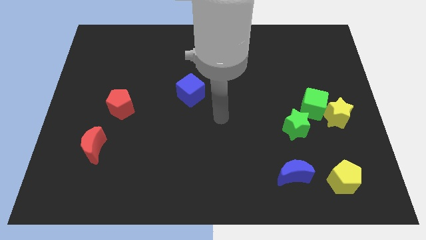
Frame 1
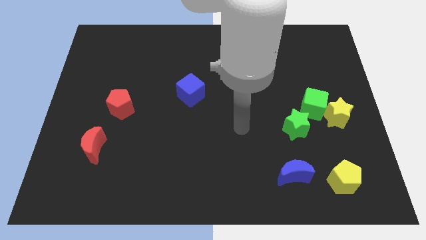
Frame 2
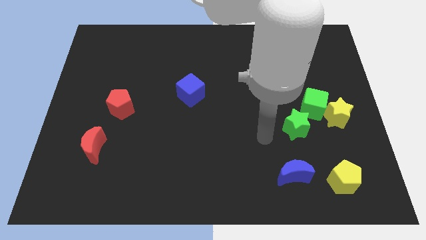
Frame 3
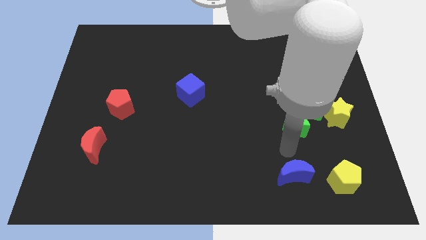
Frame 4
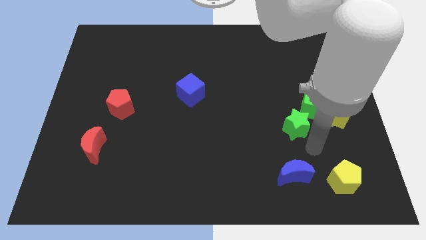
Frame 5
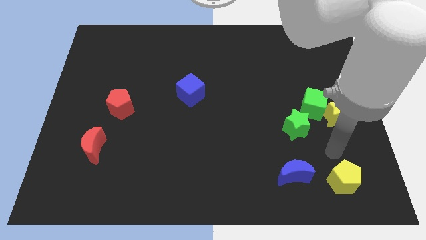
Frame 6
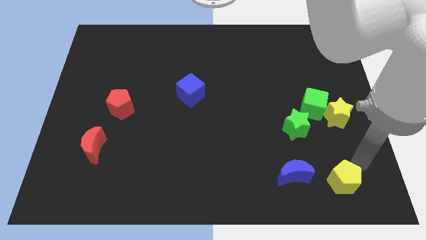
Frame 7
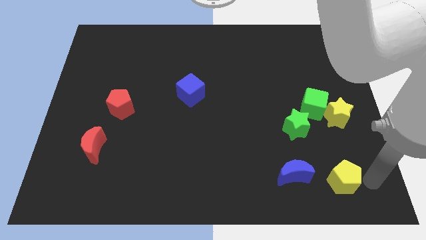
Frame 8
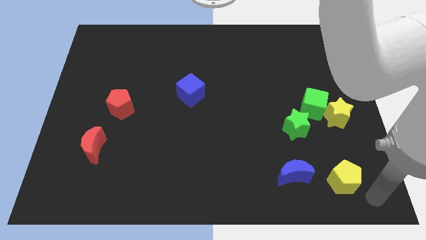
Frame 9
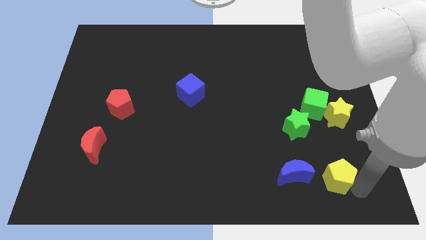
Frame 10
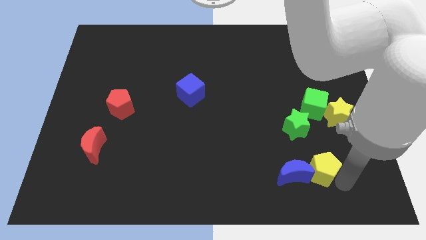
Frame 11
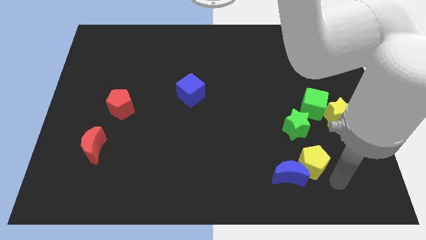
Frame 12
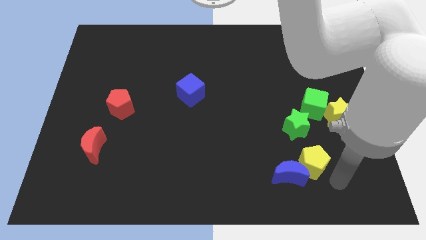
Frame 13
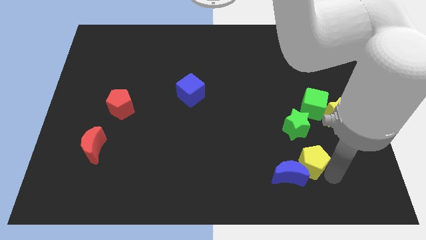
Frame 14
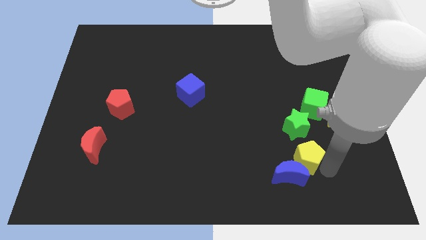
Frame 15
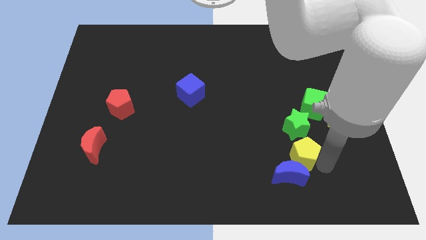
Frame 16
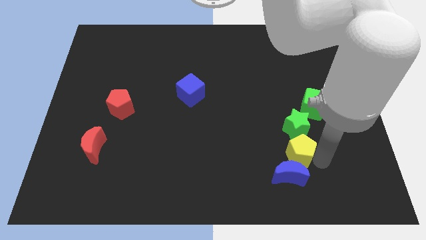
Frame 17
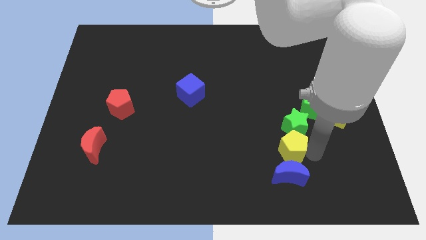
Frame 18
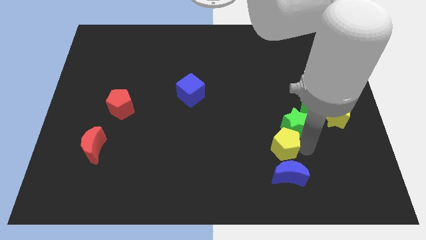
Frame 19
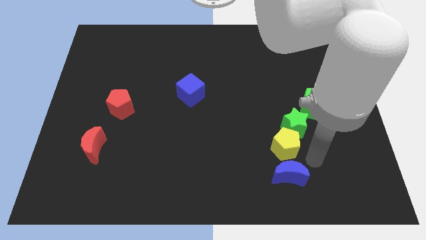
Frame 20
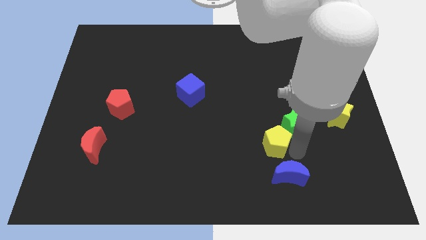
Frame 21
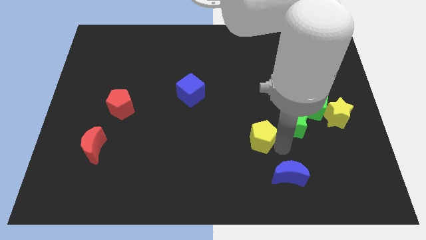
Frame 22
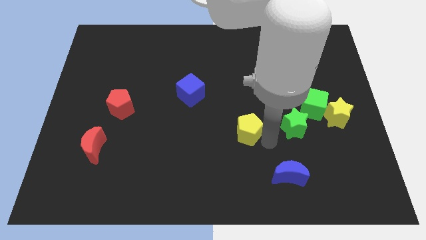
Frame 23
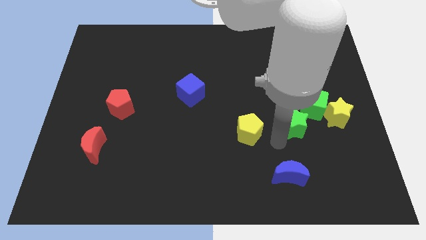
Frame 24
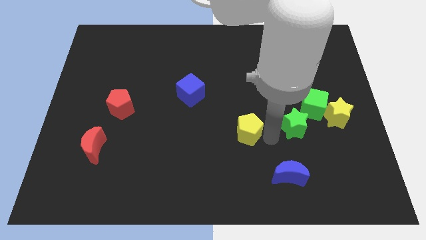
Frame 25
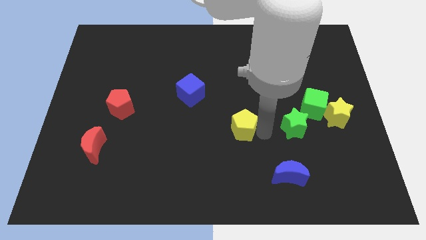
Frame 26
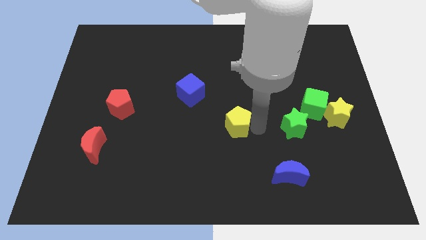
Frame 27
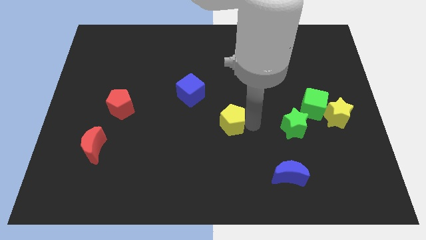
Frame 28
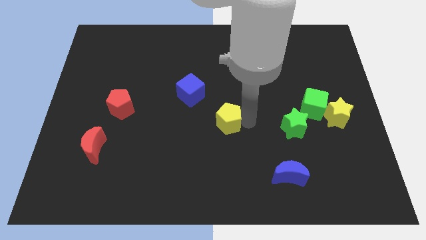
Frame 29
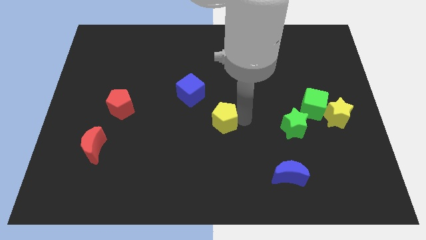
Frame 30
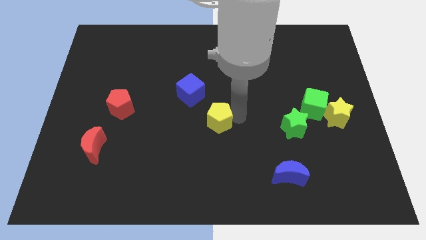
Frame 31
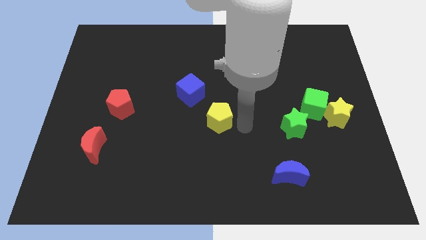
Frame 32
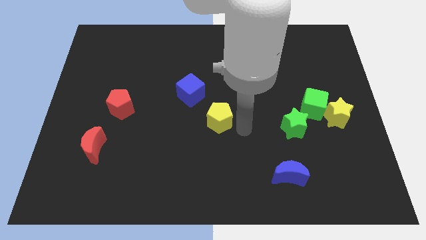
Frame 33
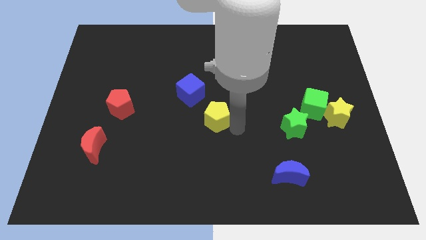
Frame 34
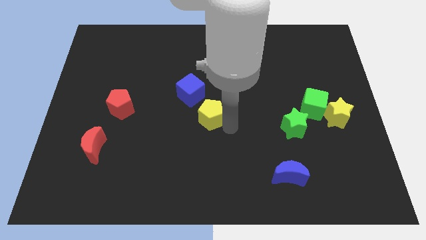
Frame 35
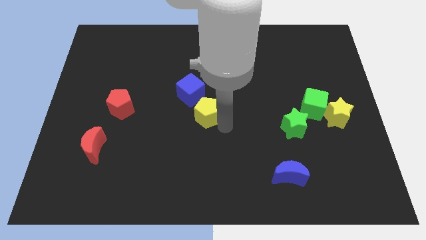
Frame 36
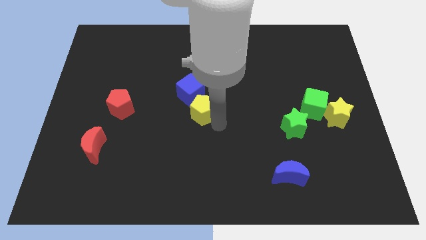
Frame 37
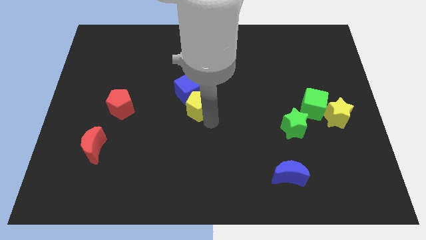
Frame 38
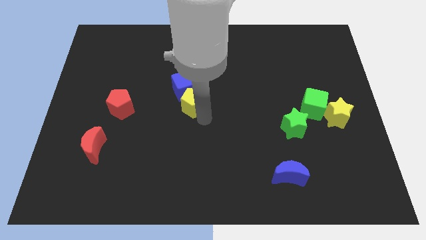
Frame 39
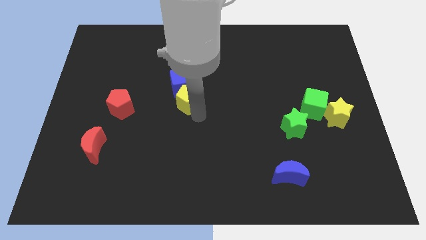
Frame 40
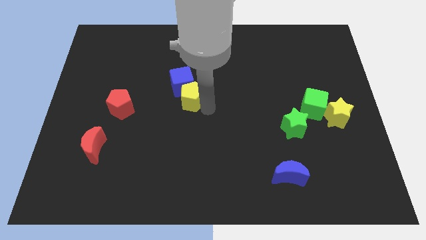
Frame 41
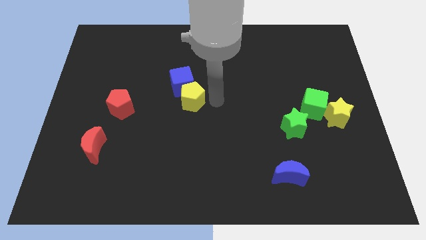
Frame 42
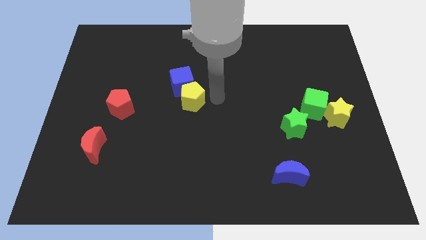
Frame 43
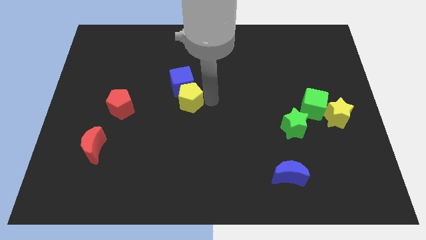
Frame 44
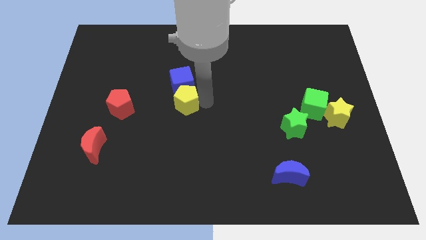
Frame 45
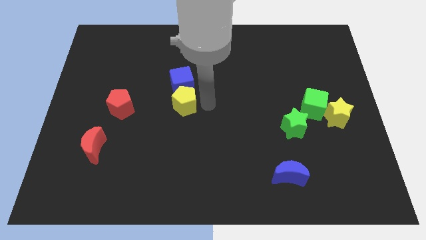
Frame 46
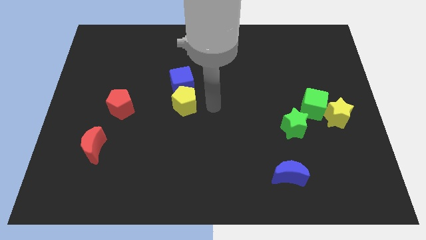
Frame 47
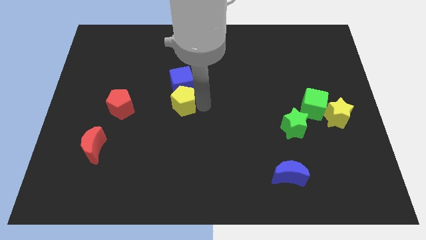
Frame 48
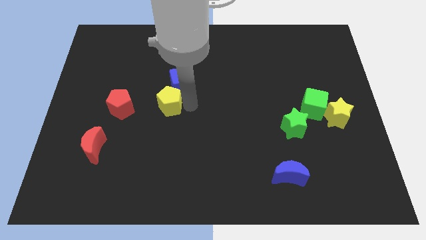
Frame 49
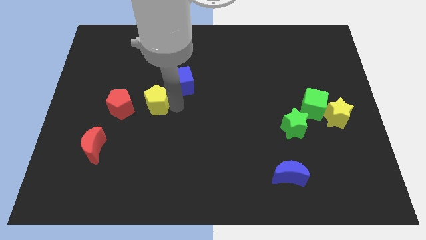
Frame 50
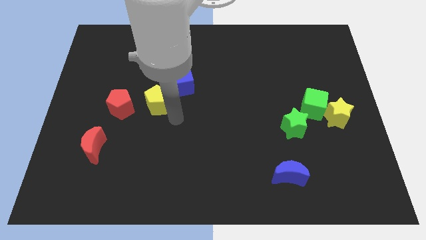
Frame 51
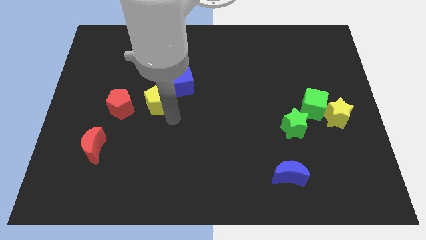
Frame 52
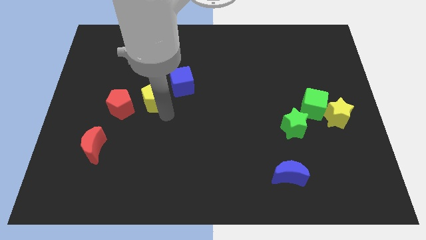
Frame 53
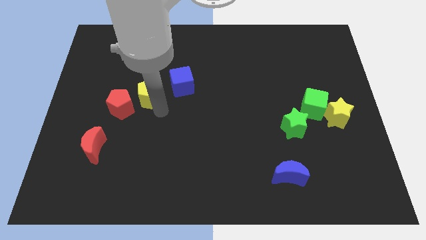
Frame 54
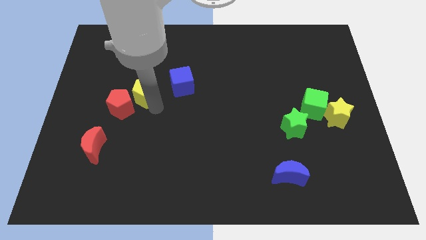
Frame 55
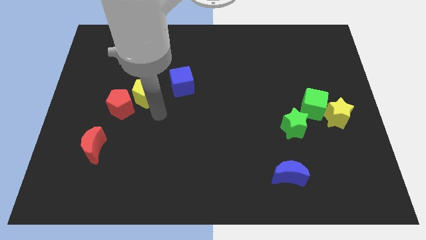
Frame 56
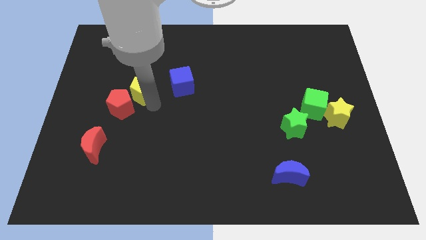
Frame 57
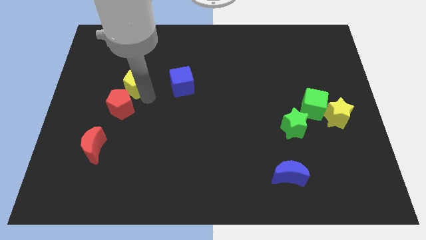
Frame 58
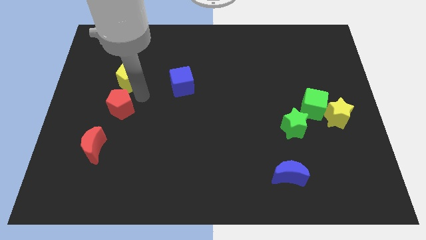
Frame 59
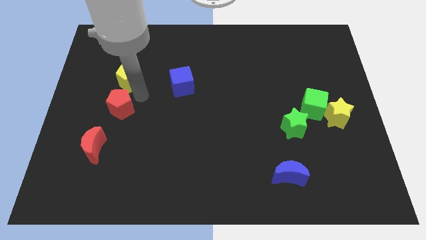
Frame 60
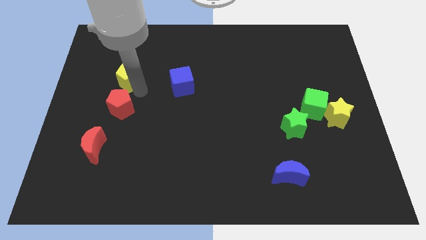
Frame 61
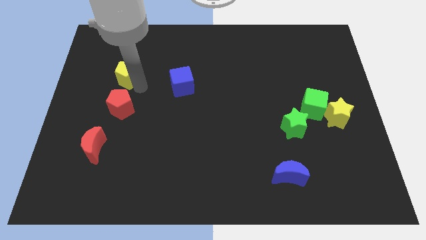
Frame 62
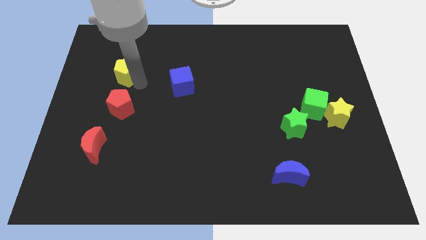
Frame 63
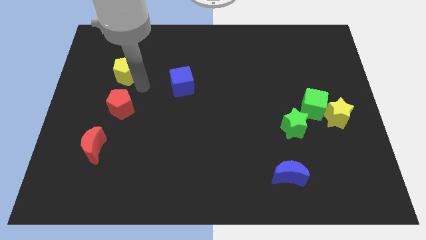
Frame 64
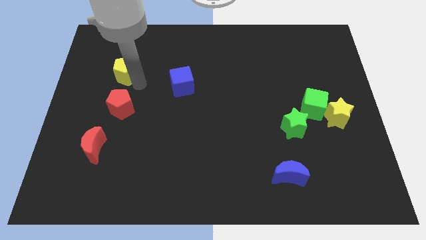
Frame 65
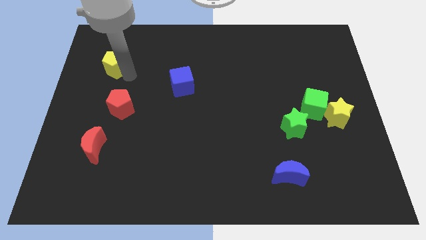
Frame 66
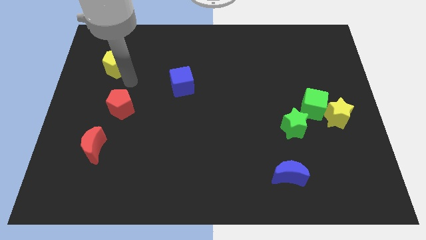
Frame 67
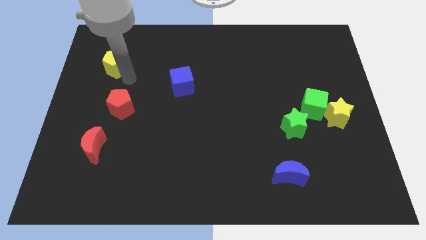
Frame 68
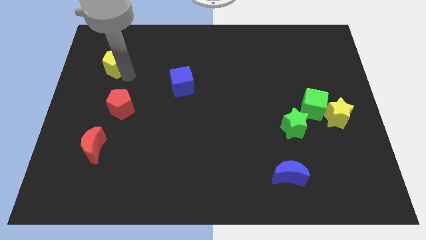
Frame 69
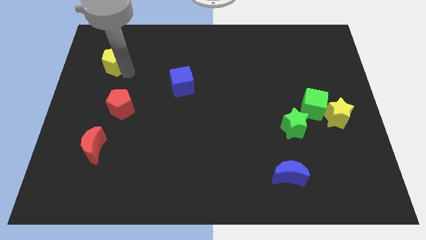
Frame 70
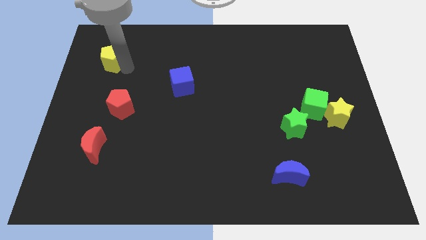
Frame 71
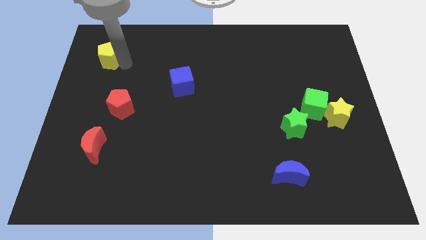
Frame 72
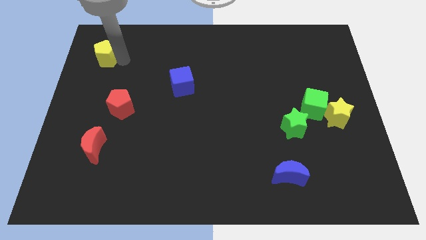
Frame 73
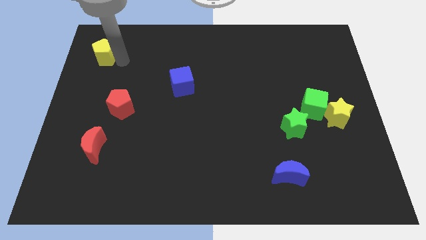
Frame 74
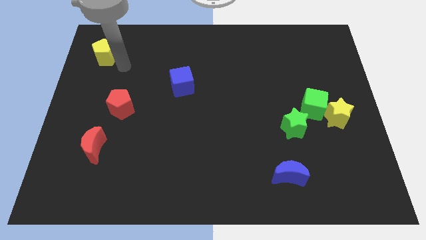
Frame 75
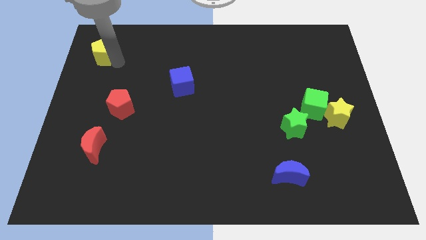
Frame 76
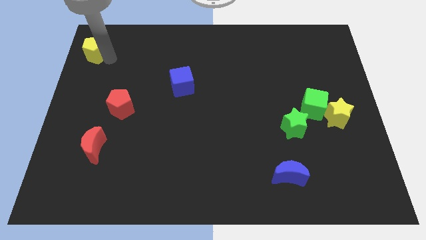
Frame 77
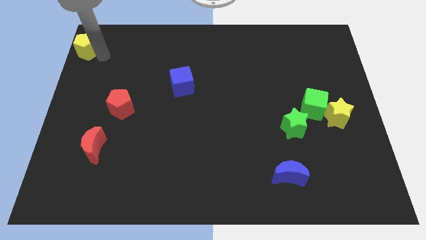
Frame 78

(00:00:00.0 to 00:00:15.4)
move the yellow pentagon to the top left of the board
